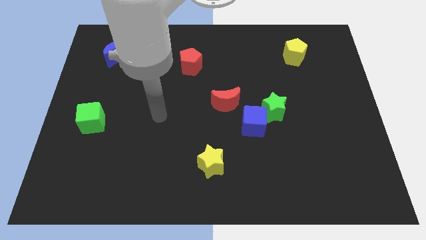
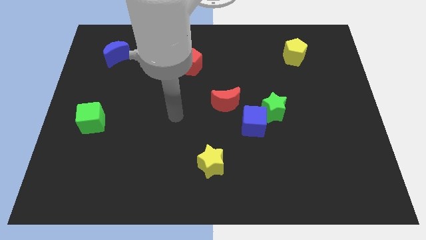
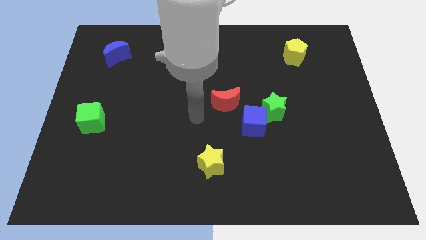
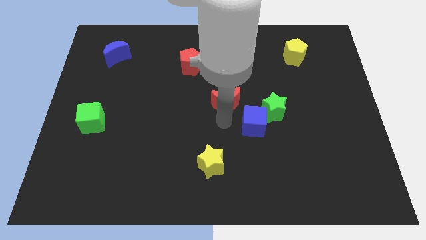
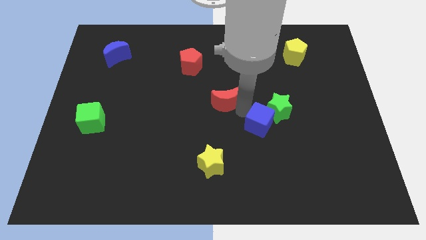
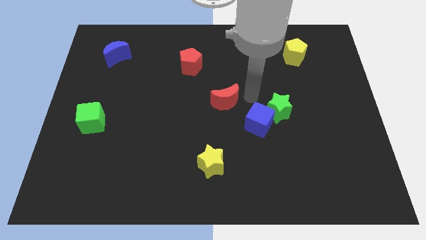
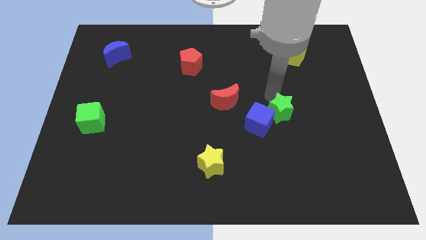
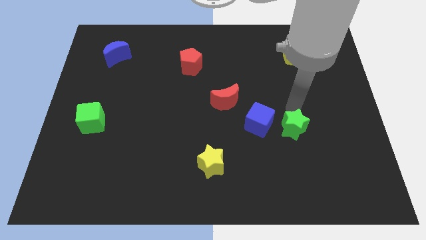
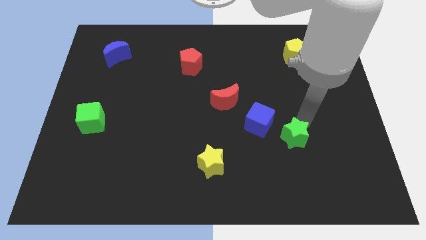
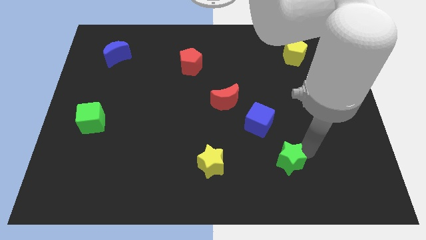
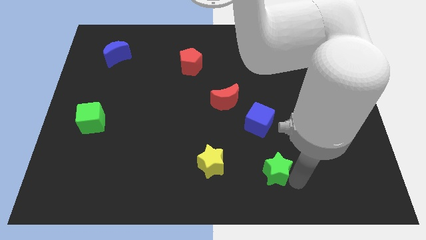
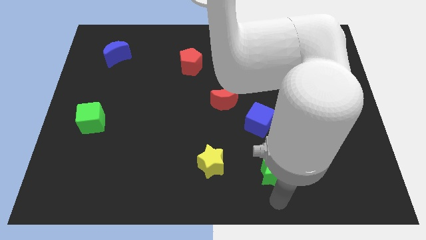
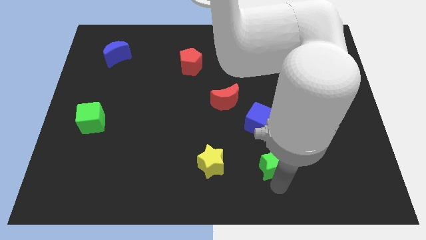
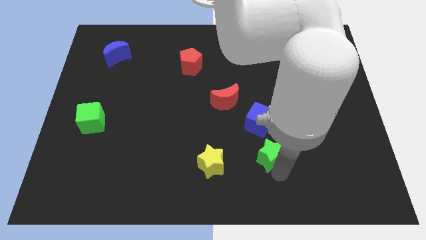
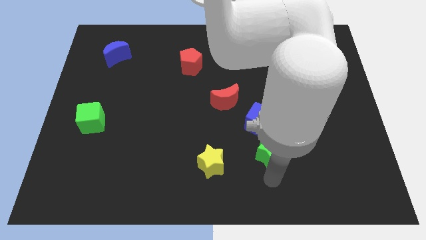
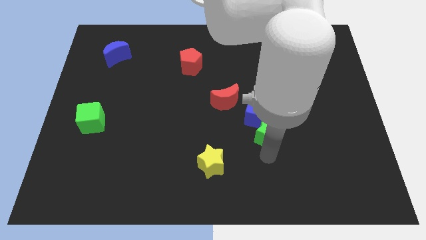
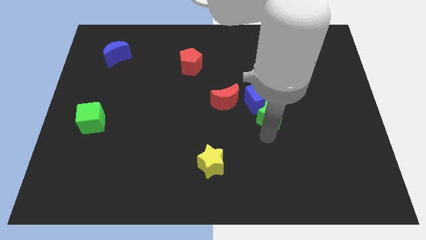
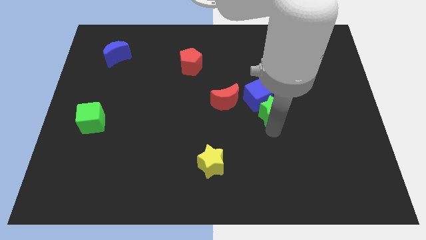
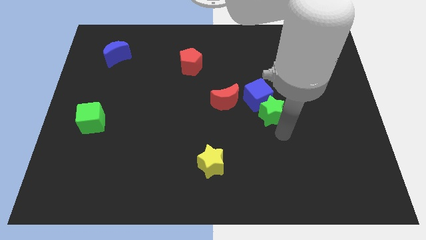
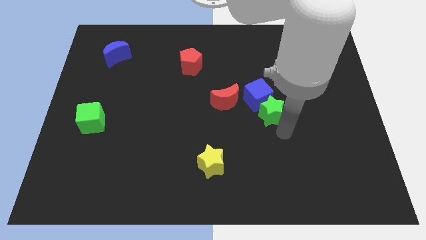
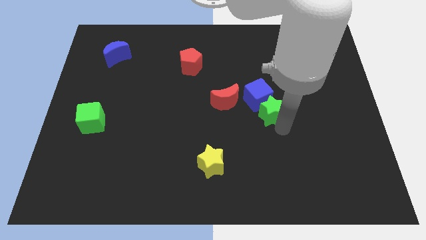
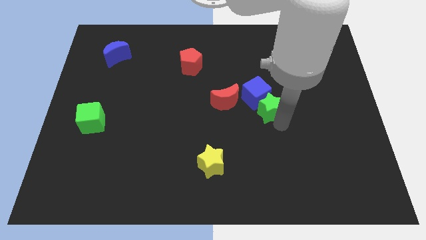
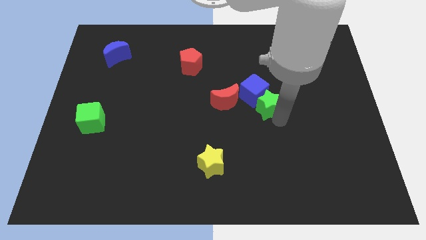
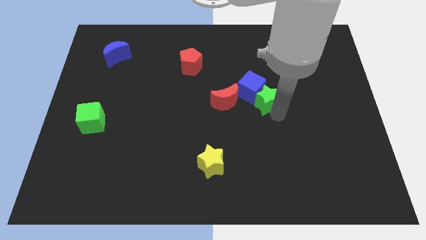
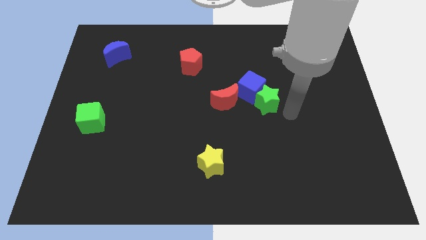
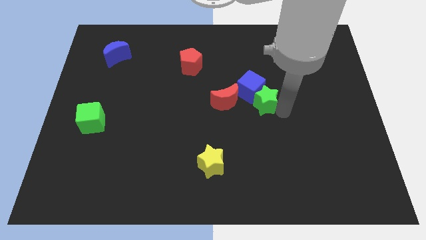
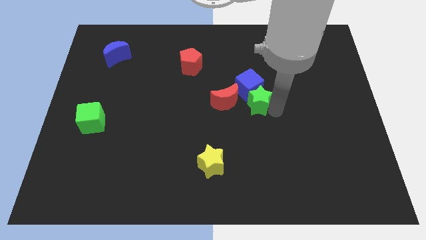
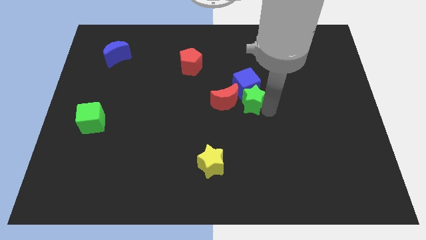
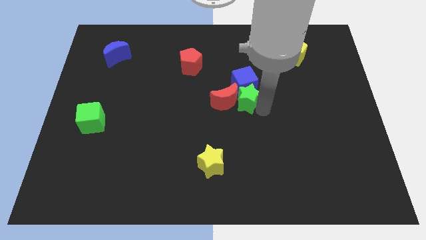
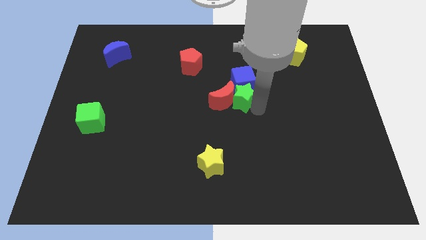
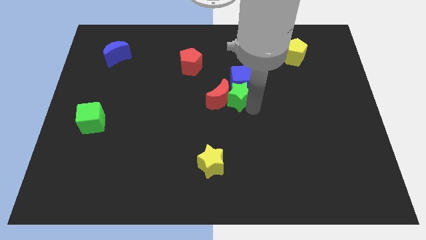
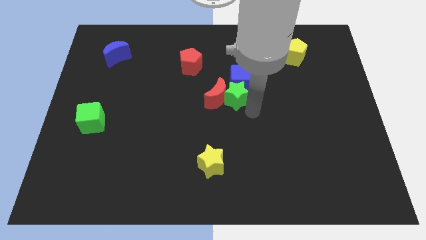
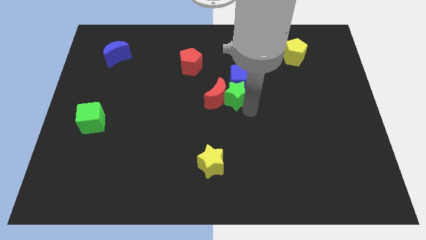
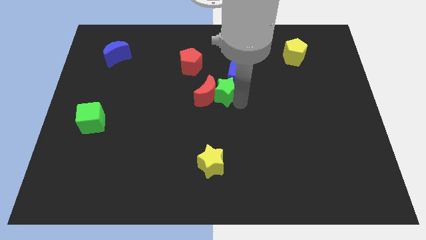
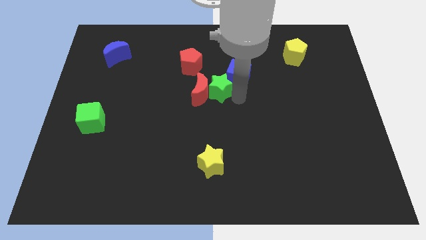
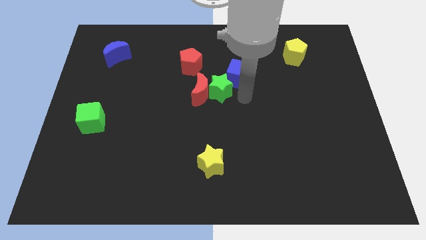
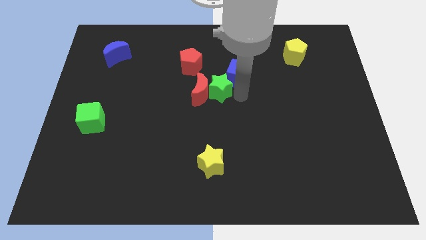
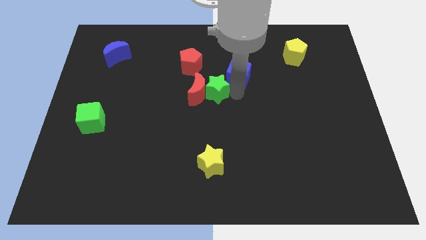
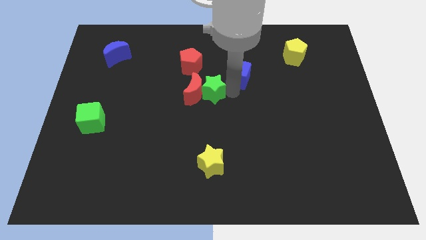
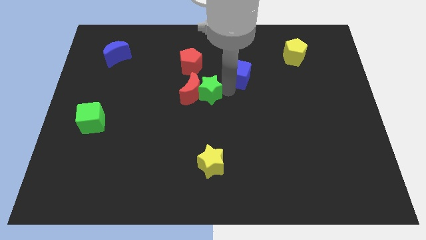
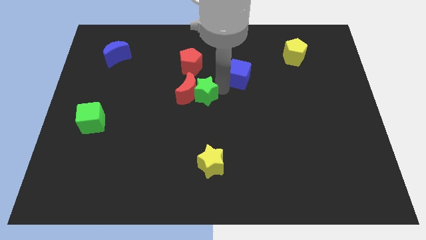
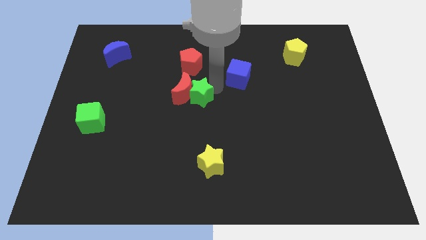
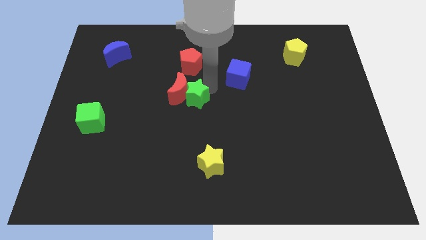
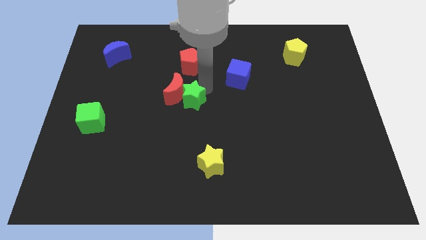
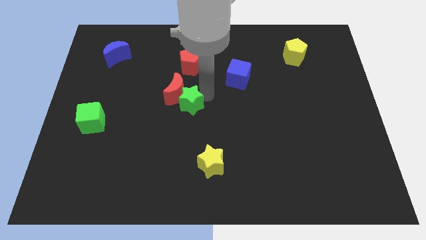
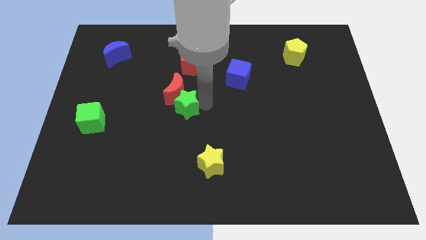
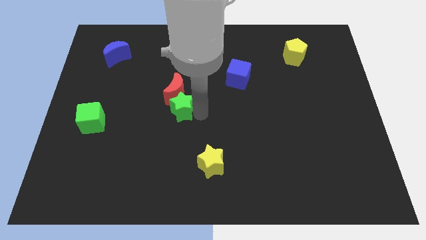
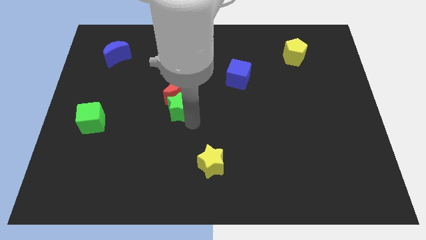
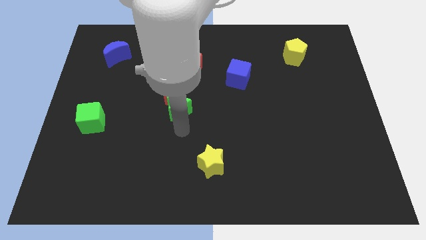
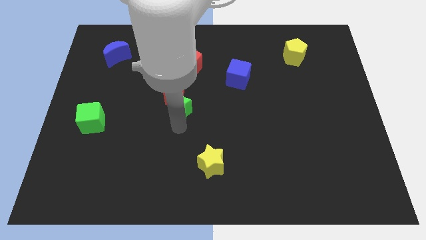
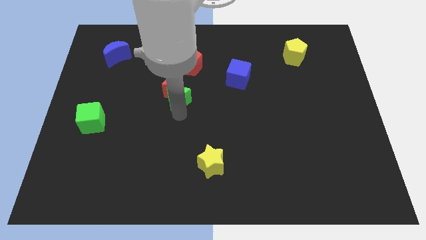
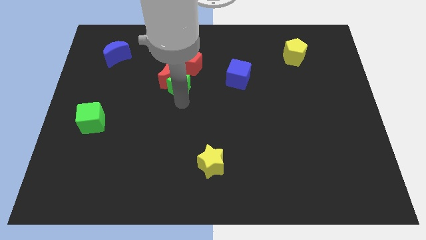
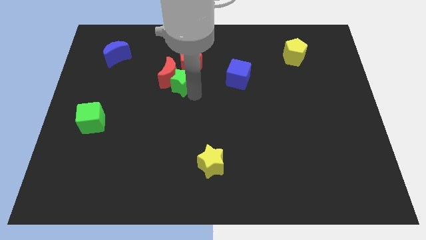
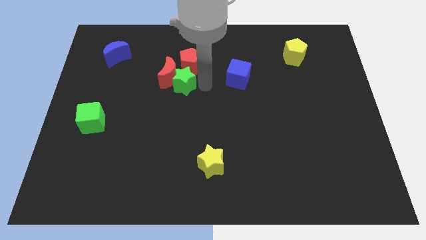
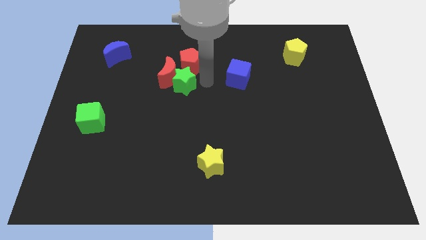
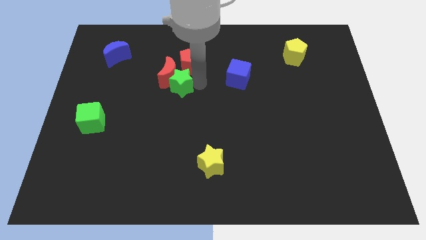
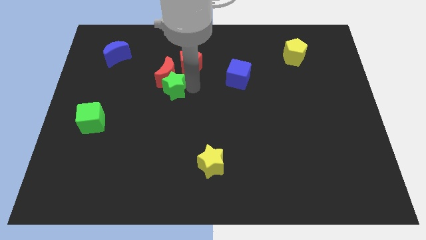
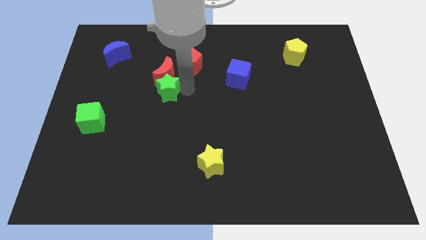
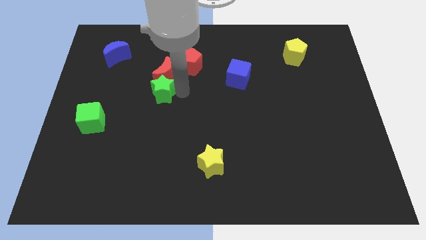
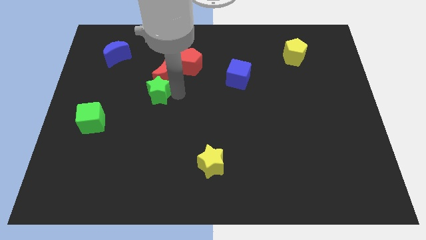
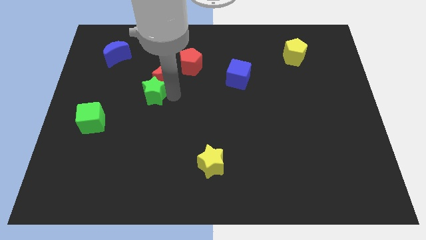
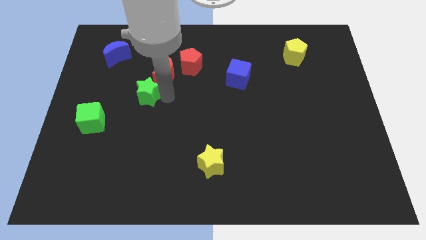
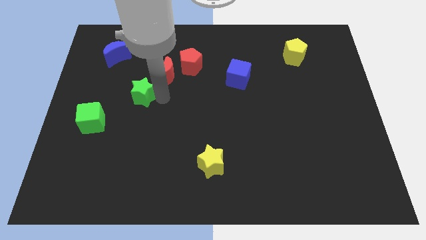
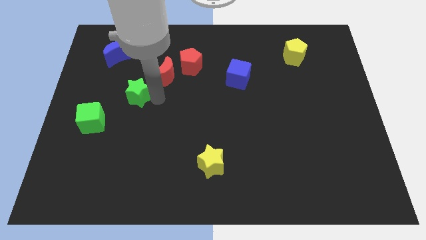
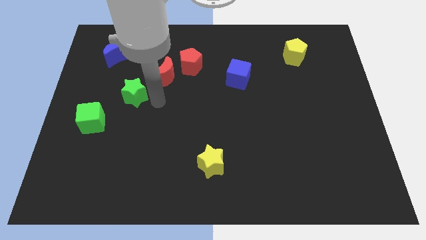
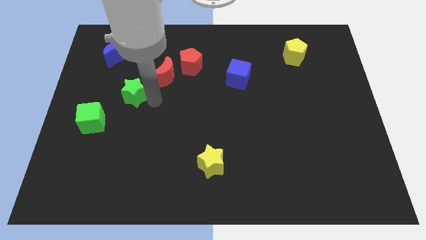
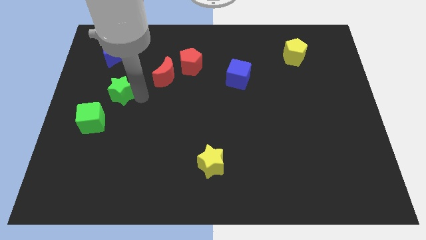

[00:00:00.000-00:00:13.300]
put the green star below the blue moon

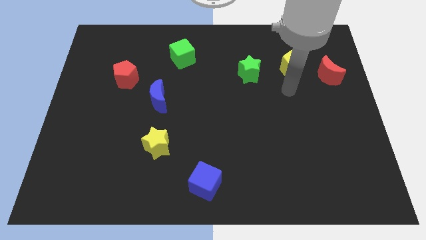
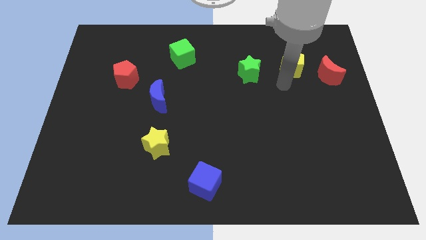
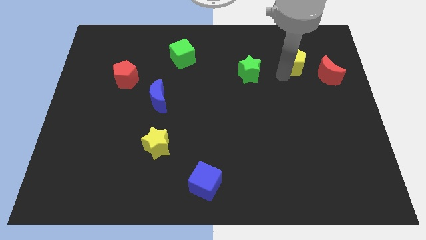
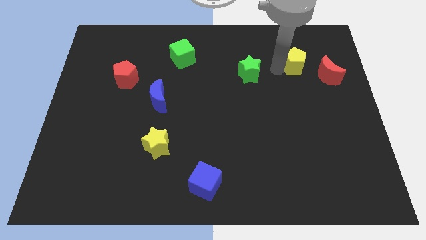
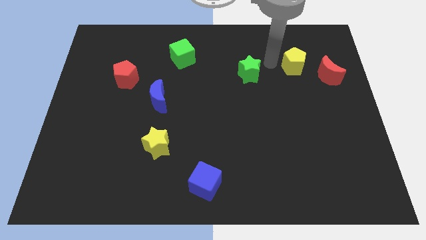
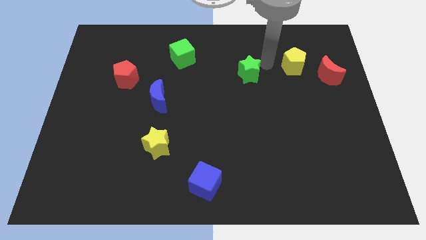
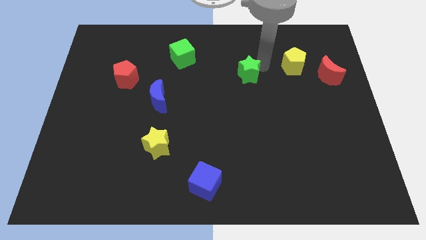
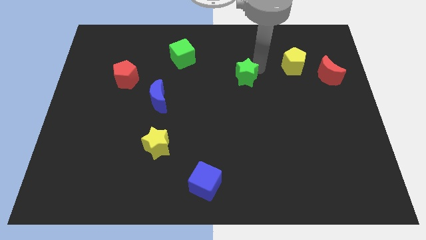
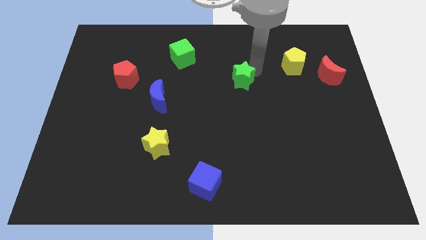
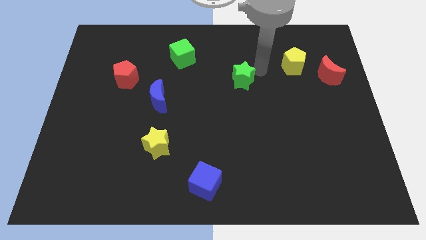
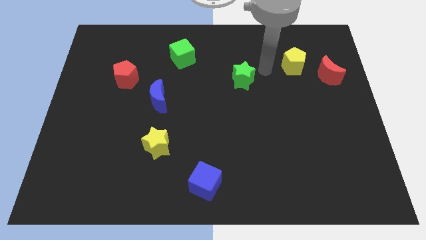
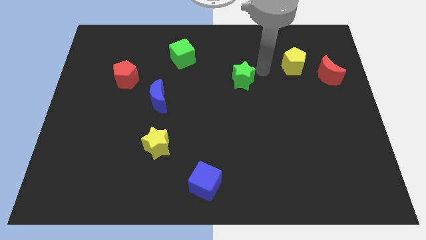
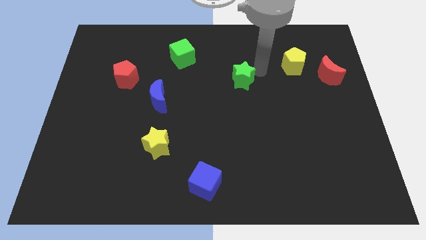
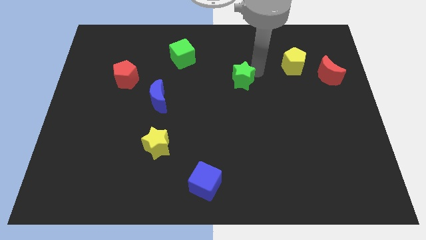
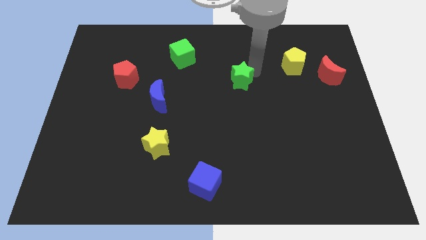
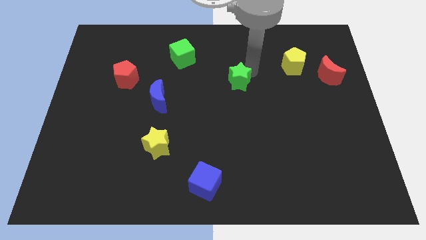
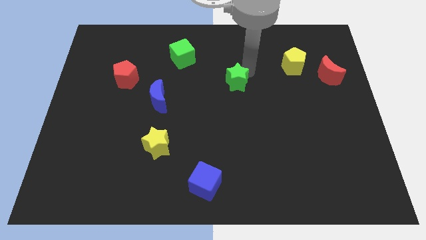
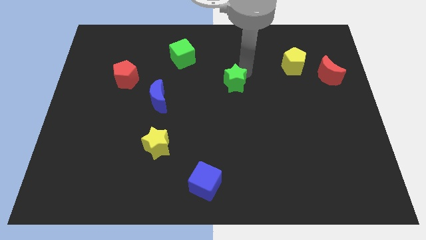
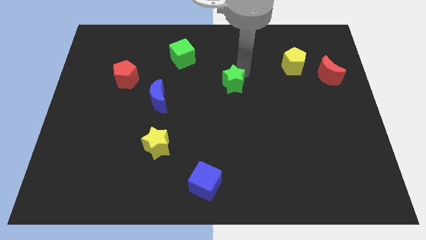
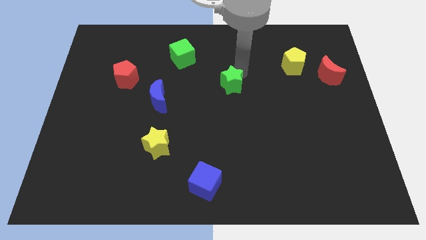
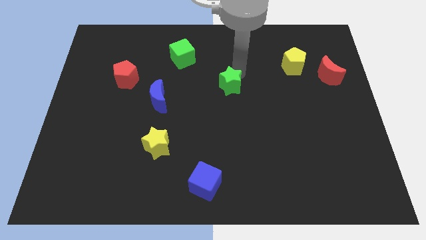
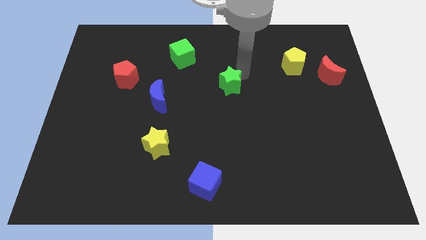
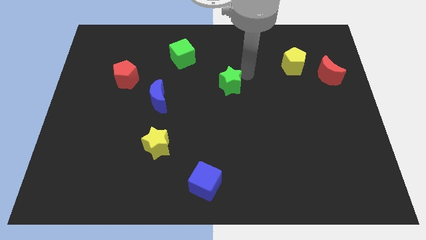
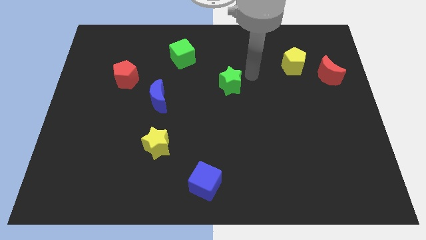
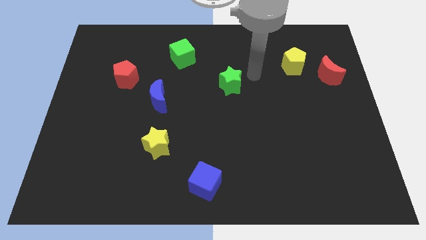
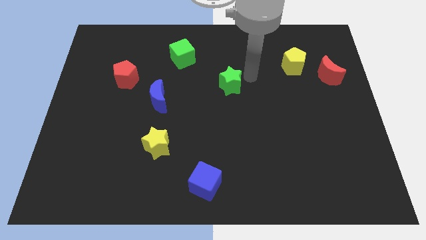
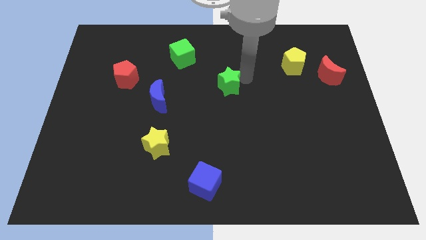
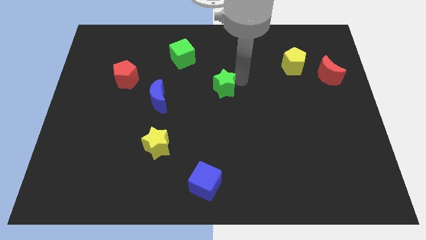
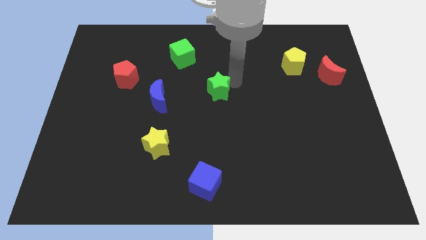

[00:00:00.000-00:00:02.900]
put the green star just right of the blue moon
